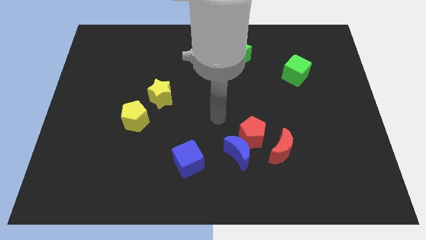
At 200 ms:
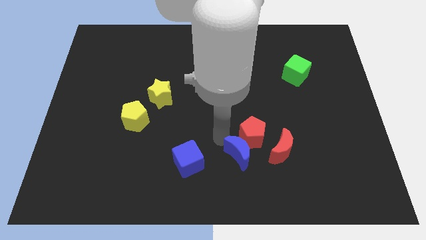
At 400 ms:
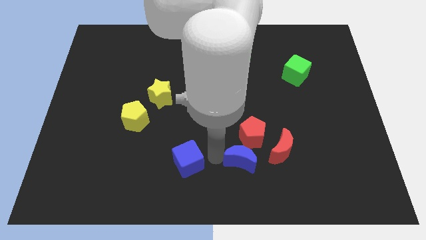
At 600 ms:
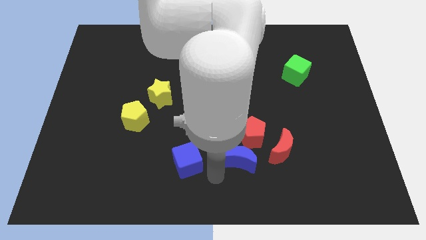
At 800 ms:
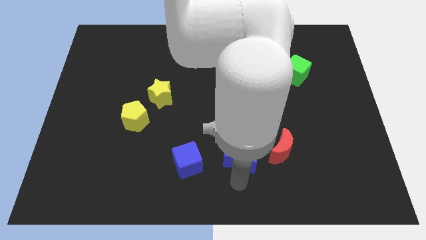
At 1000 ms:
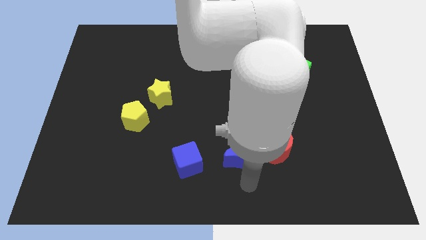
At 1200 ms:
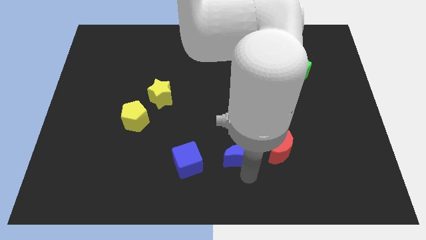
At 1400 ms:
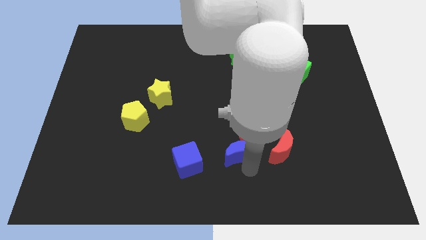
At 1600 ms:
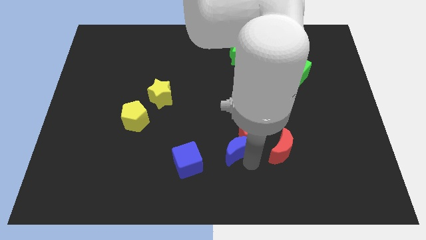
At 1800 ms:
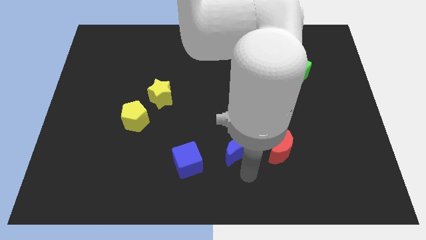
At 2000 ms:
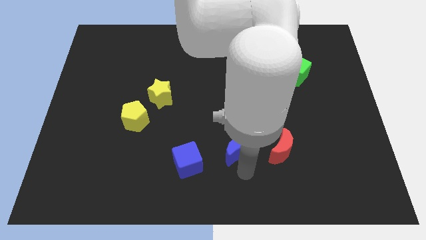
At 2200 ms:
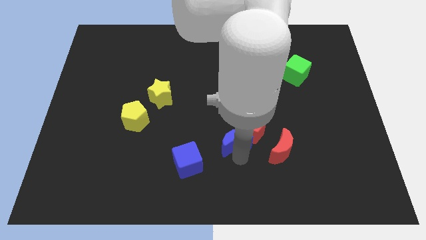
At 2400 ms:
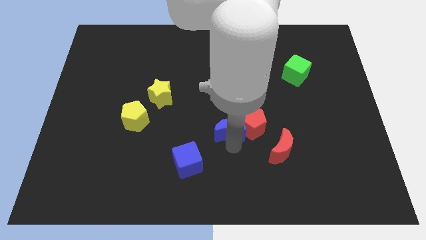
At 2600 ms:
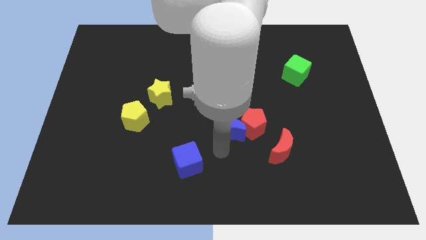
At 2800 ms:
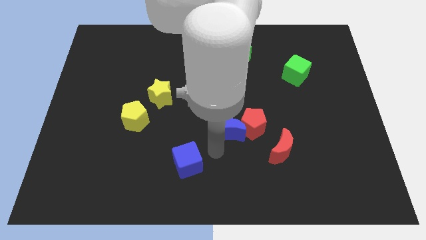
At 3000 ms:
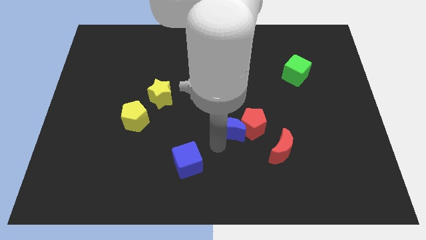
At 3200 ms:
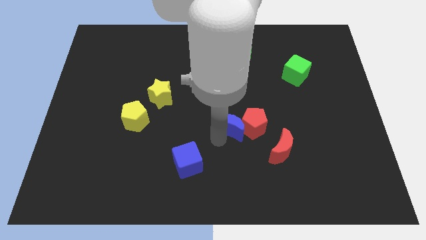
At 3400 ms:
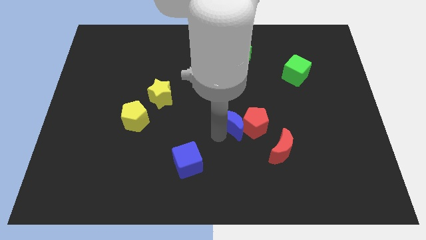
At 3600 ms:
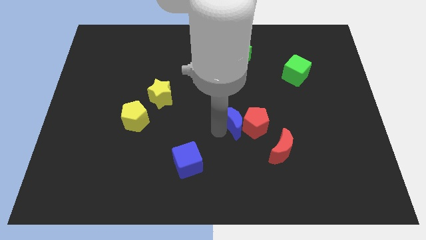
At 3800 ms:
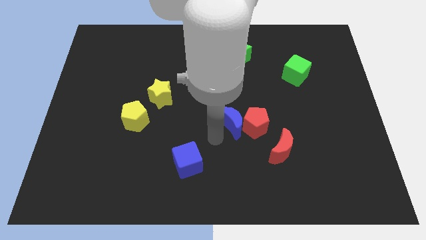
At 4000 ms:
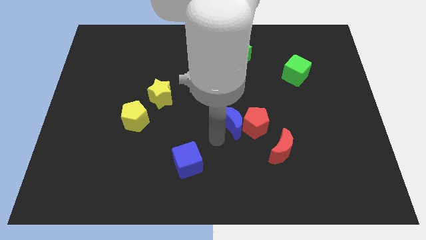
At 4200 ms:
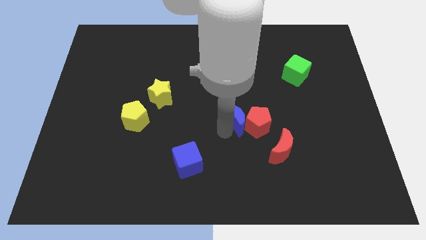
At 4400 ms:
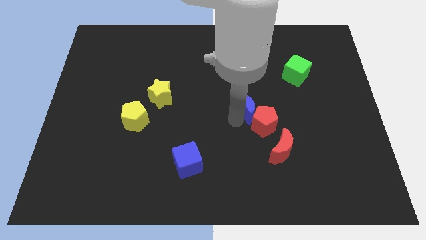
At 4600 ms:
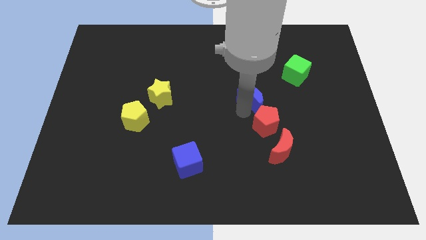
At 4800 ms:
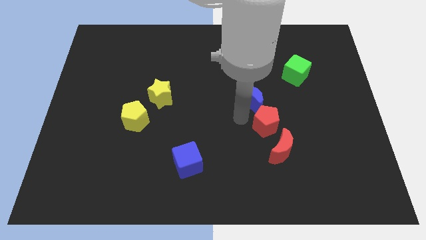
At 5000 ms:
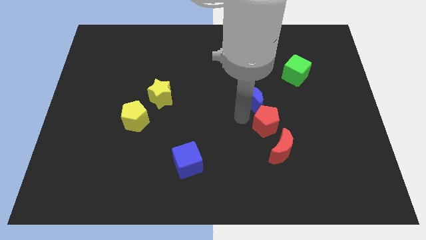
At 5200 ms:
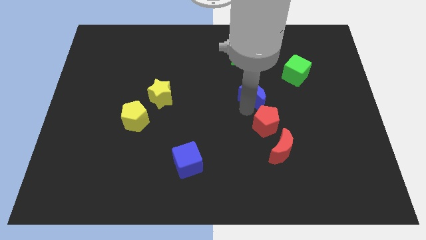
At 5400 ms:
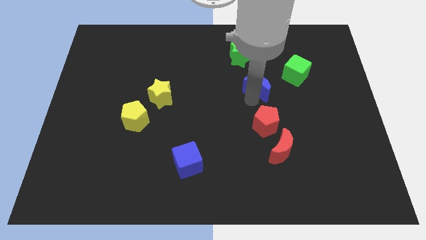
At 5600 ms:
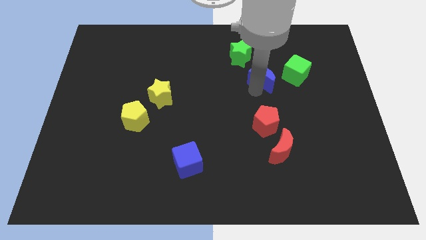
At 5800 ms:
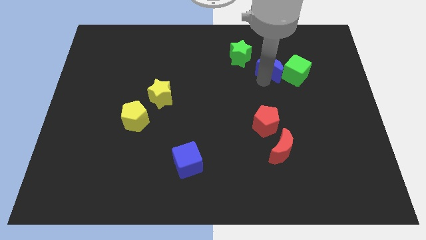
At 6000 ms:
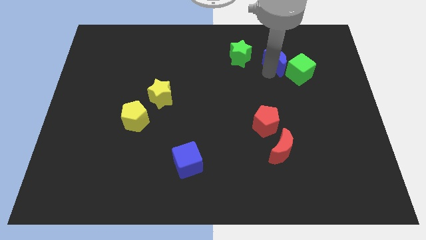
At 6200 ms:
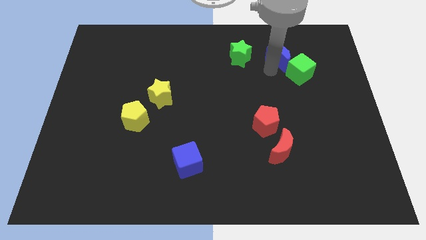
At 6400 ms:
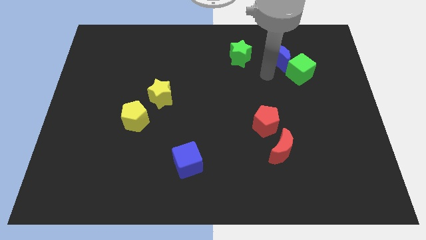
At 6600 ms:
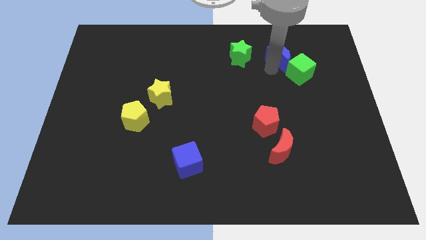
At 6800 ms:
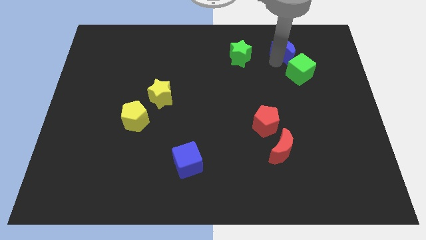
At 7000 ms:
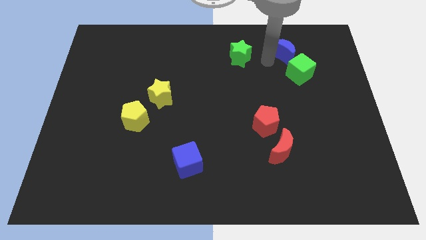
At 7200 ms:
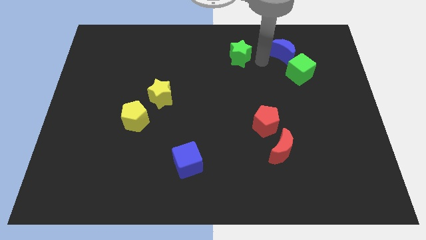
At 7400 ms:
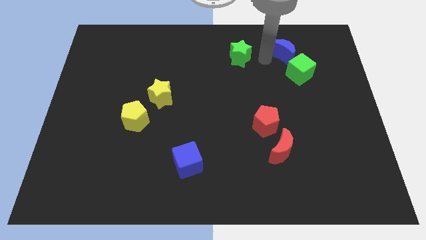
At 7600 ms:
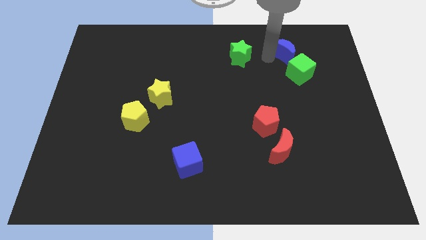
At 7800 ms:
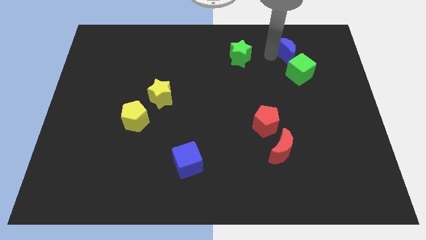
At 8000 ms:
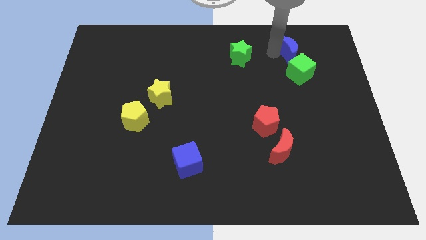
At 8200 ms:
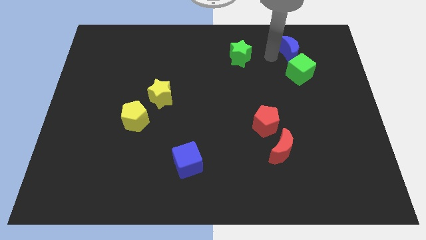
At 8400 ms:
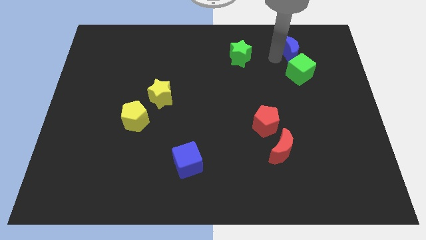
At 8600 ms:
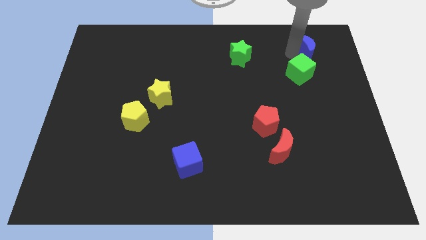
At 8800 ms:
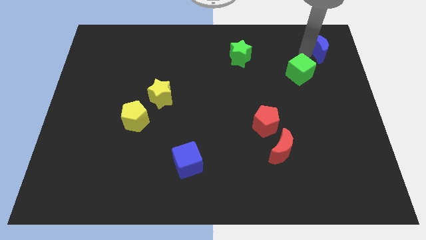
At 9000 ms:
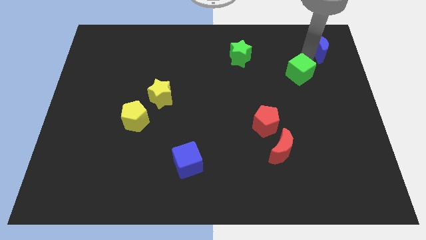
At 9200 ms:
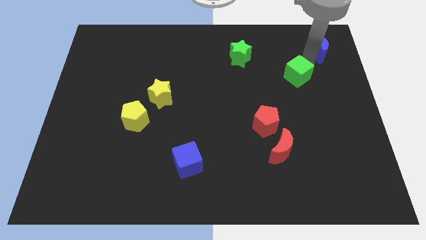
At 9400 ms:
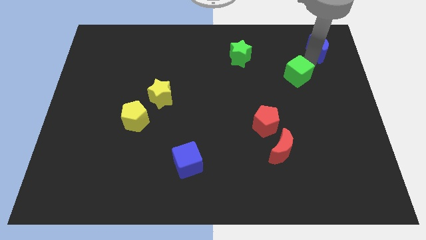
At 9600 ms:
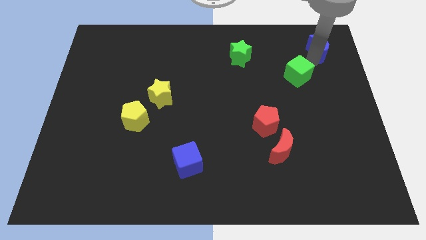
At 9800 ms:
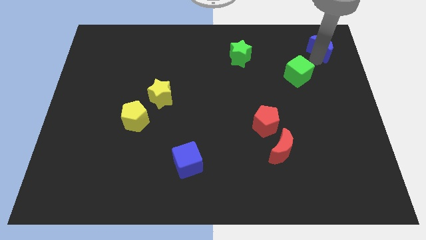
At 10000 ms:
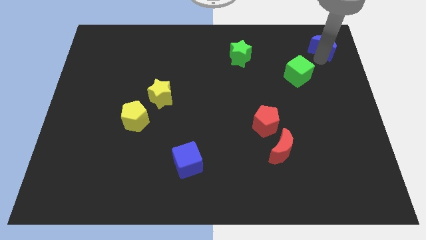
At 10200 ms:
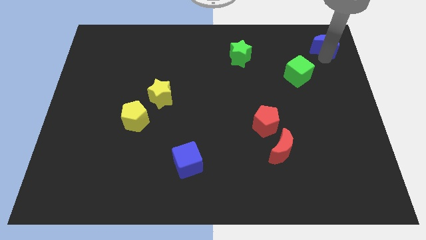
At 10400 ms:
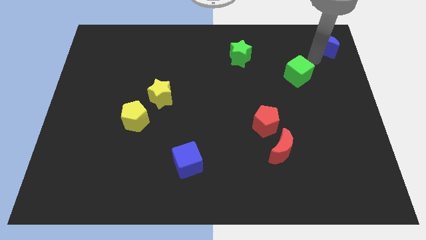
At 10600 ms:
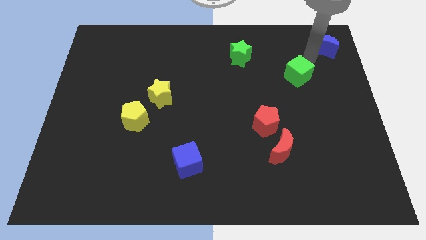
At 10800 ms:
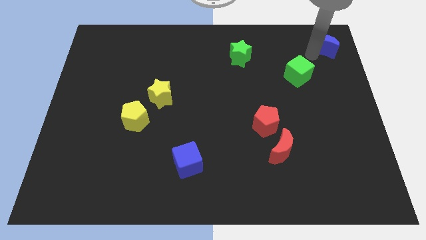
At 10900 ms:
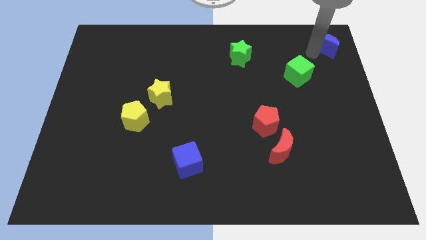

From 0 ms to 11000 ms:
move the blue moon to the top right of the board

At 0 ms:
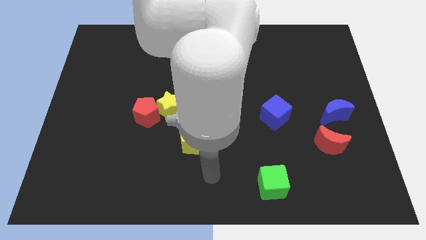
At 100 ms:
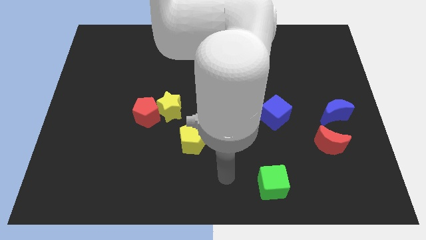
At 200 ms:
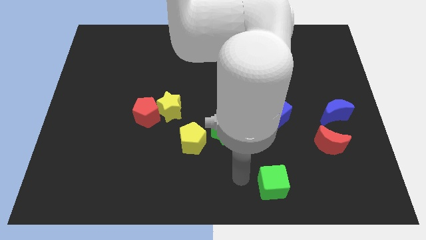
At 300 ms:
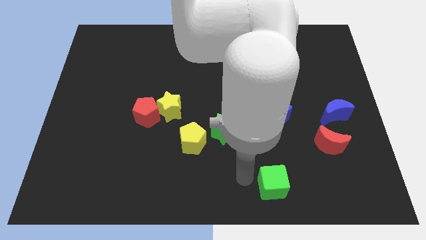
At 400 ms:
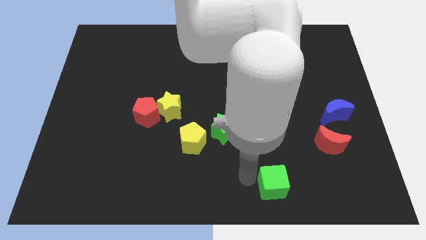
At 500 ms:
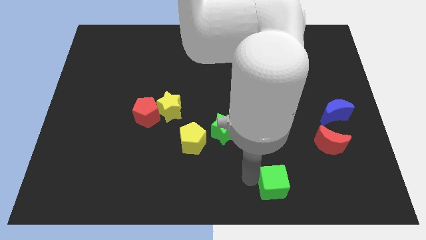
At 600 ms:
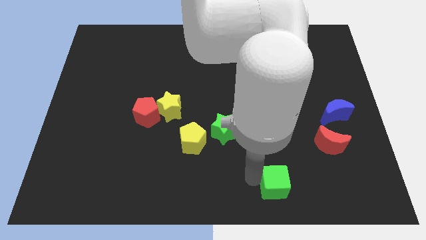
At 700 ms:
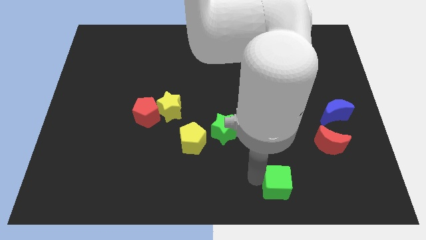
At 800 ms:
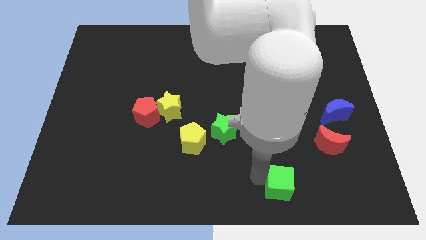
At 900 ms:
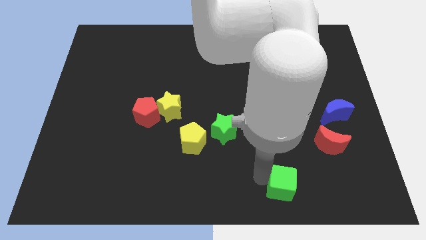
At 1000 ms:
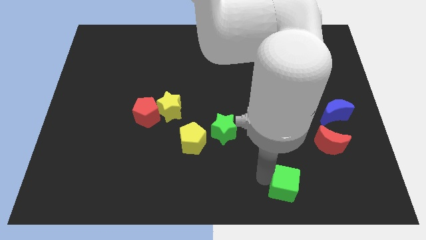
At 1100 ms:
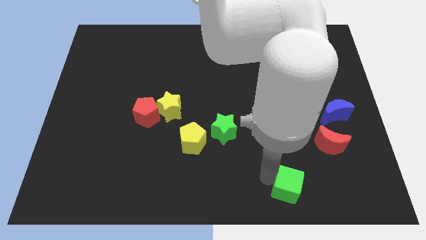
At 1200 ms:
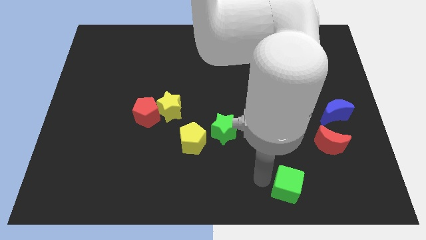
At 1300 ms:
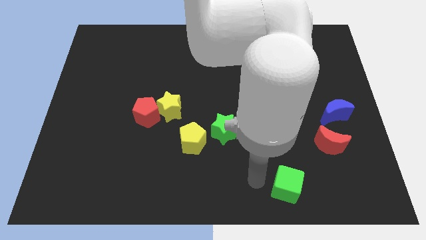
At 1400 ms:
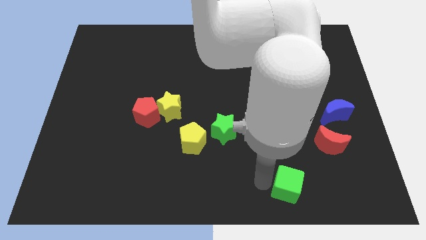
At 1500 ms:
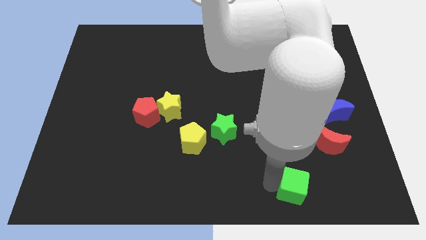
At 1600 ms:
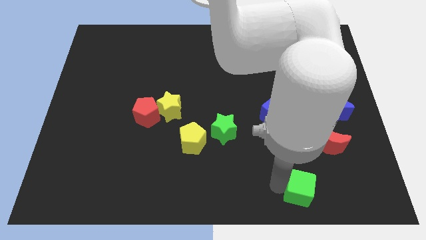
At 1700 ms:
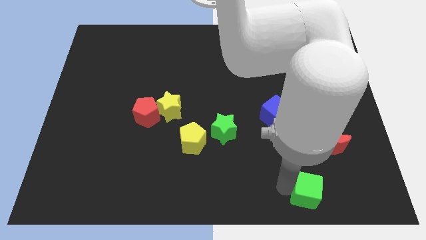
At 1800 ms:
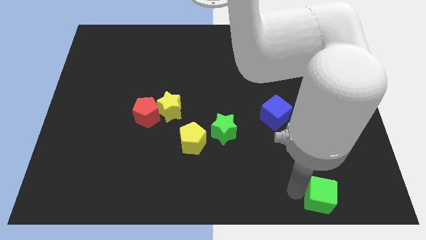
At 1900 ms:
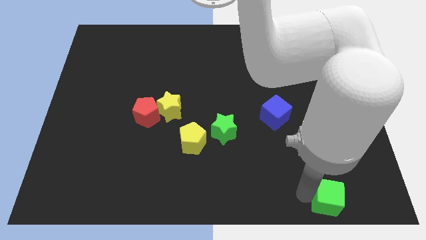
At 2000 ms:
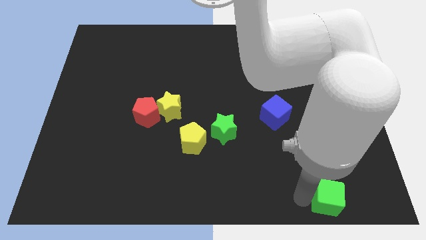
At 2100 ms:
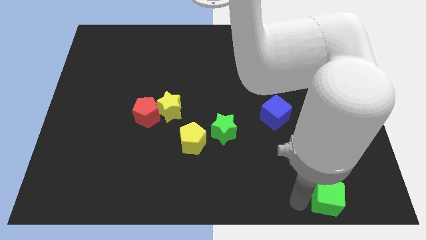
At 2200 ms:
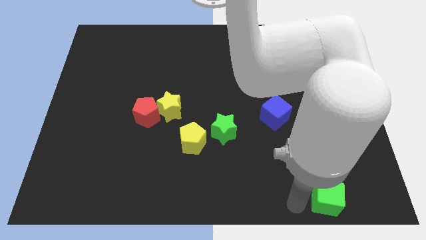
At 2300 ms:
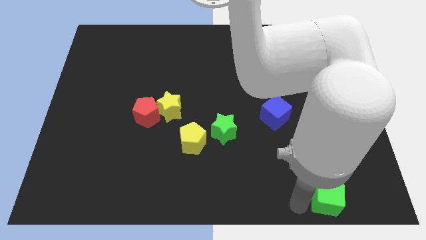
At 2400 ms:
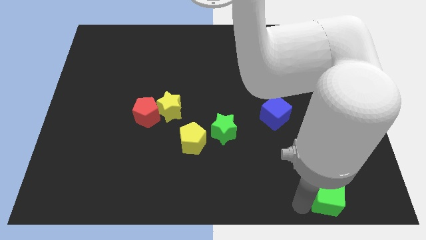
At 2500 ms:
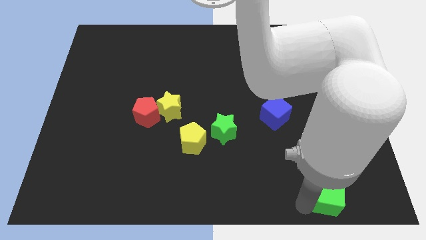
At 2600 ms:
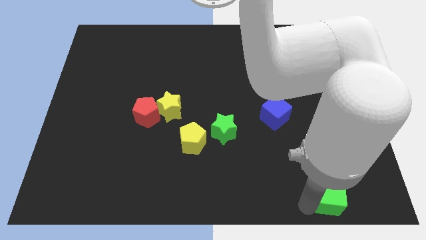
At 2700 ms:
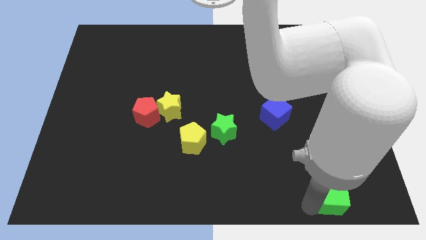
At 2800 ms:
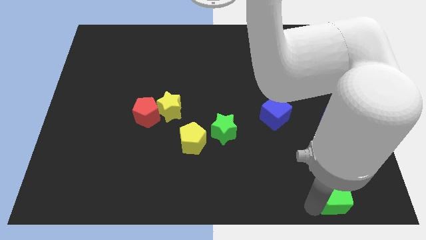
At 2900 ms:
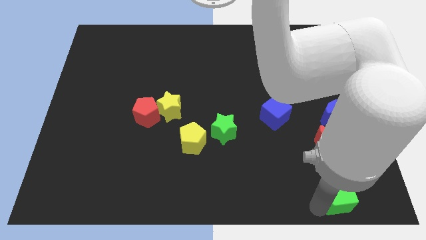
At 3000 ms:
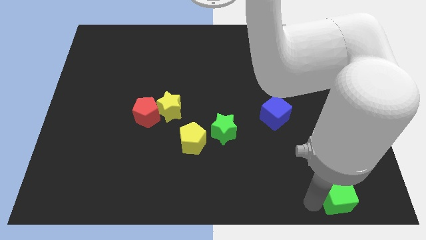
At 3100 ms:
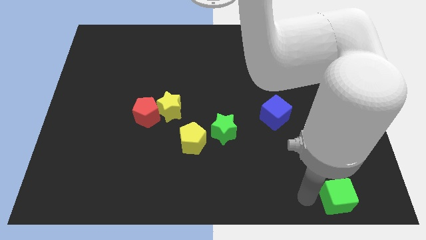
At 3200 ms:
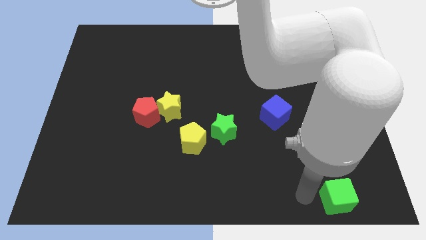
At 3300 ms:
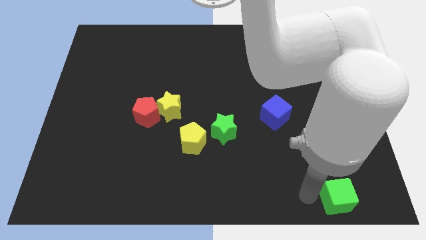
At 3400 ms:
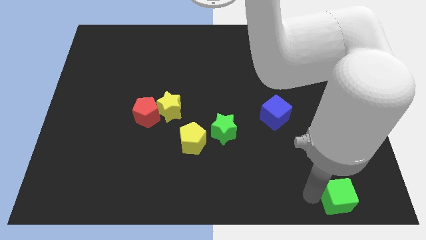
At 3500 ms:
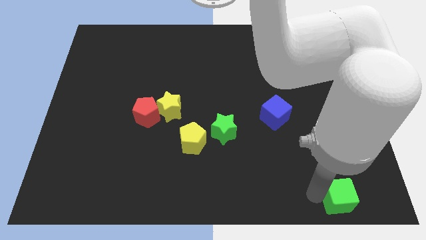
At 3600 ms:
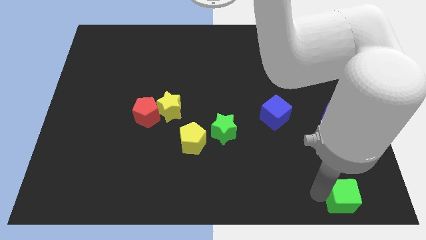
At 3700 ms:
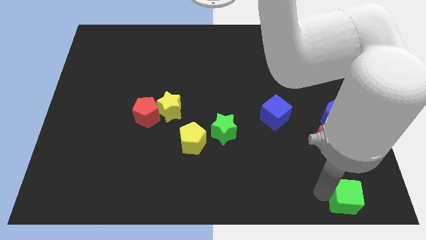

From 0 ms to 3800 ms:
push the green cube to the bottom right
